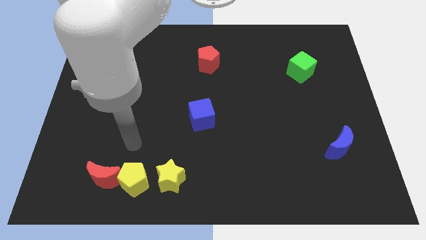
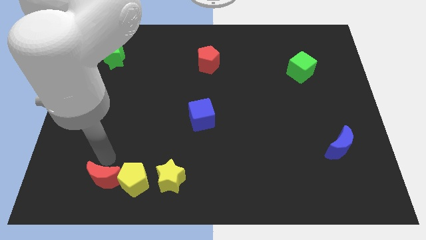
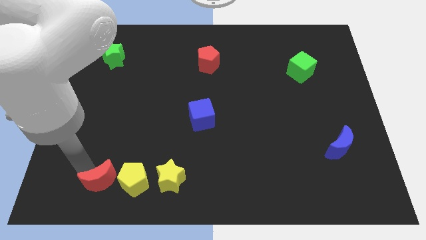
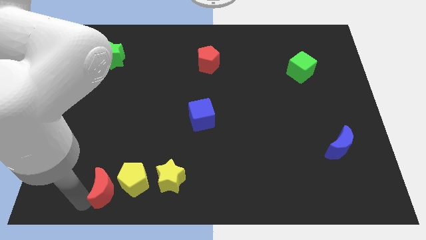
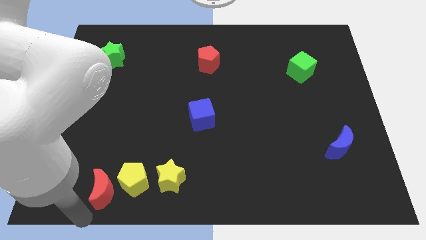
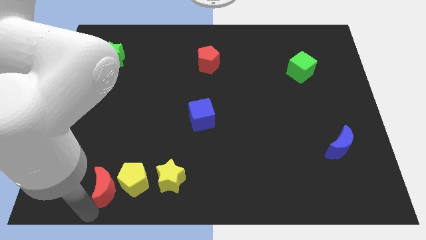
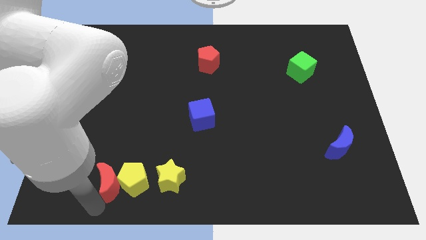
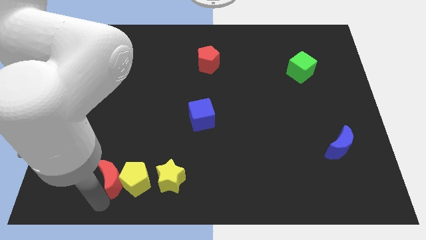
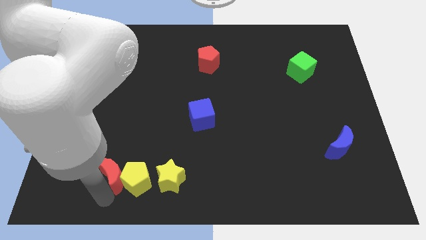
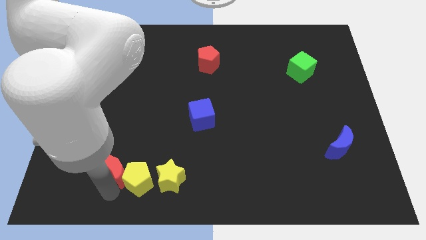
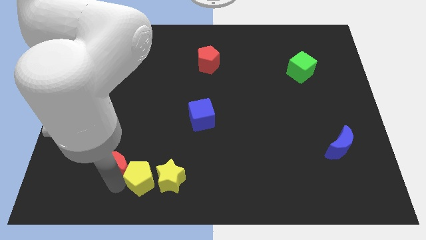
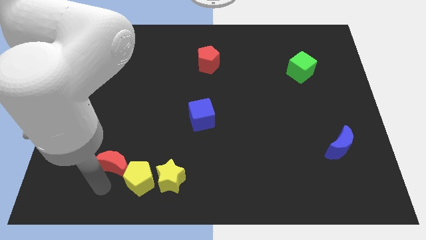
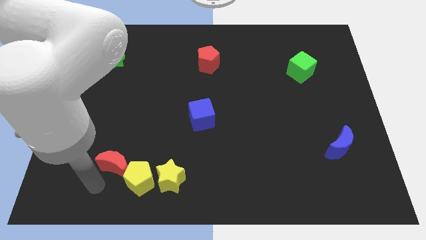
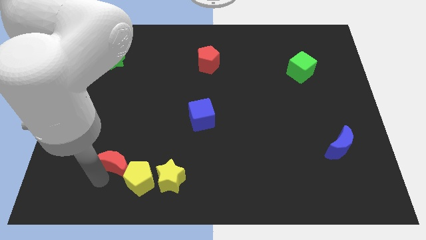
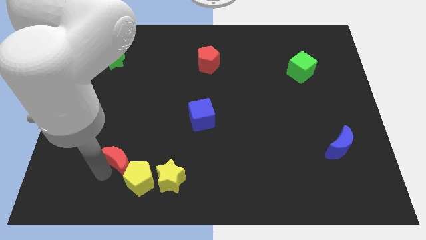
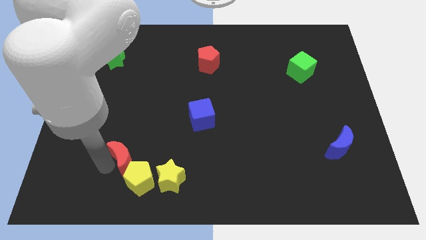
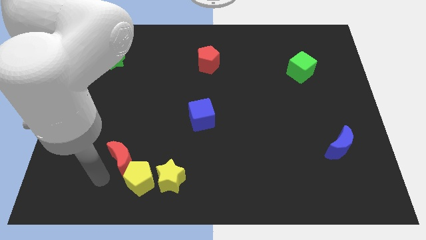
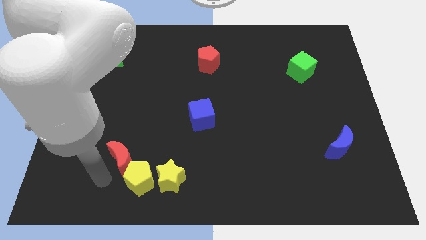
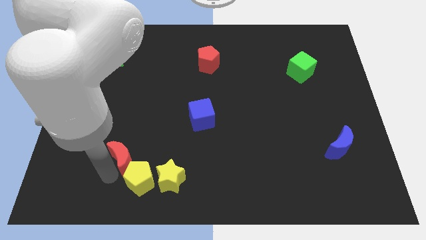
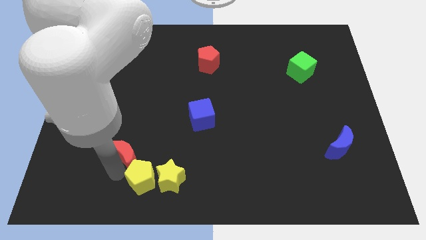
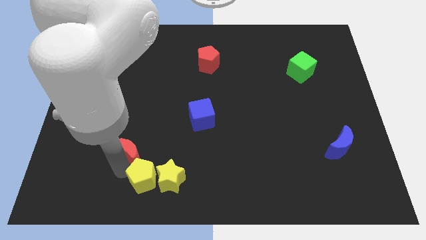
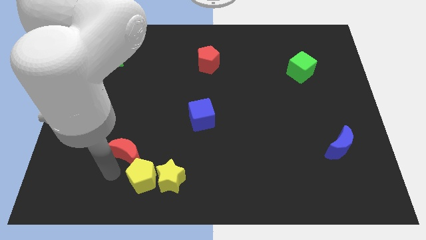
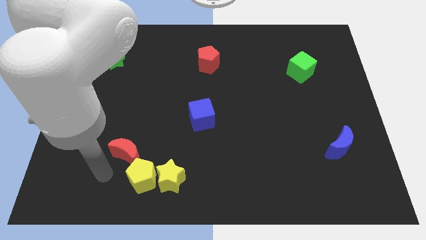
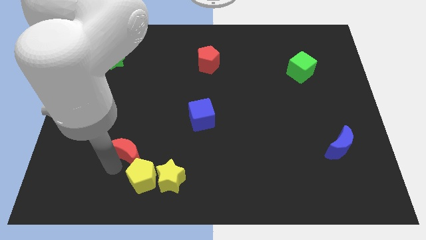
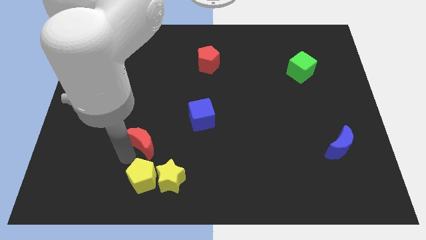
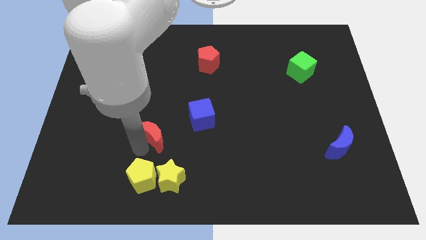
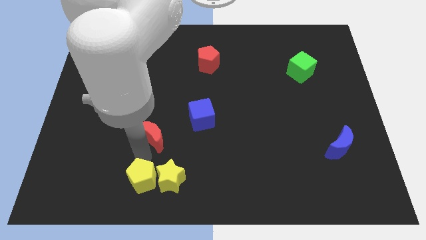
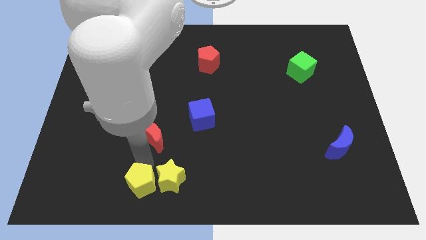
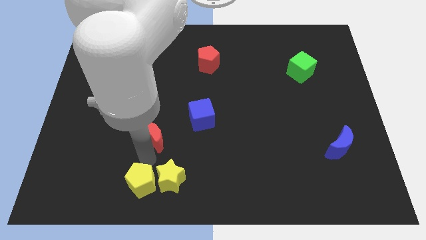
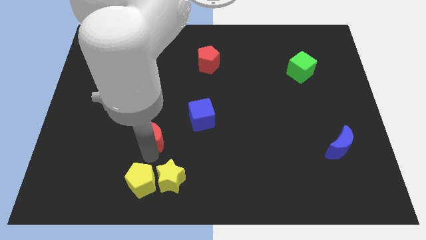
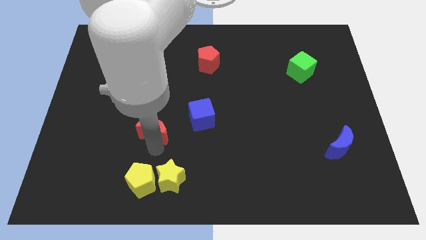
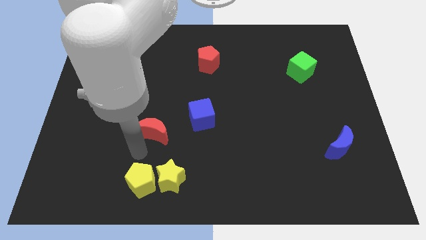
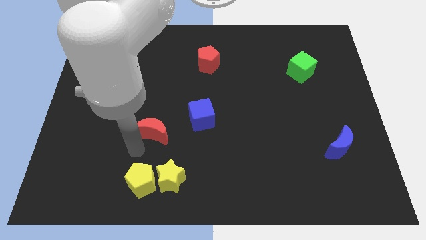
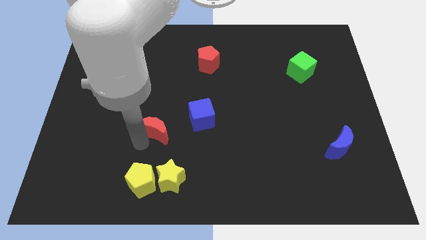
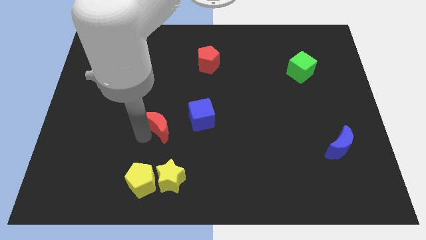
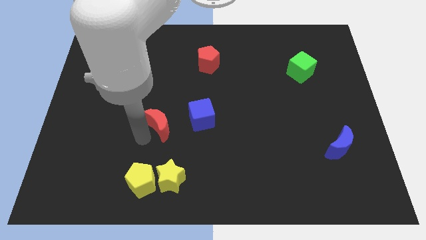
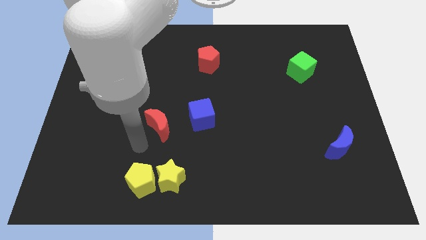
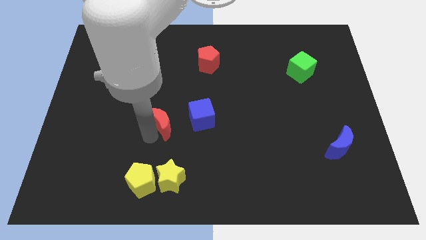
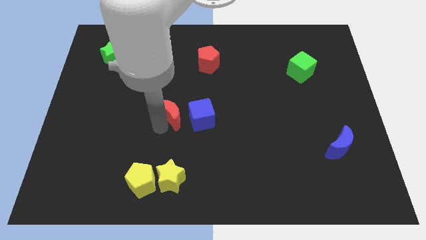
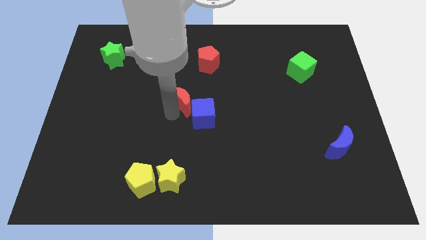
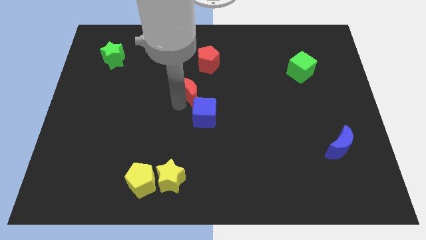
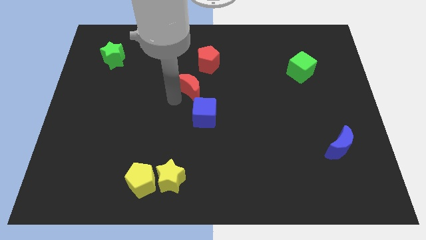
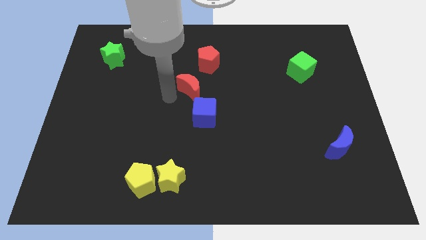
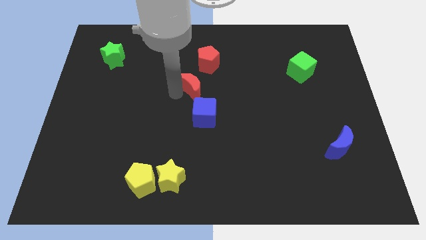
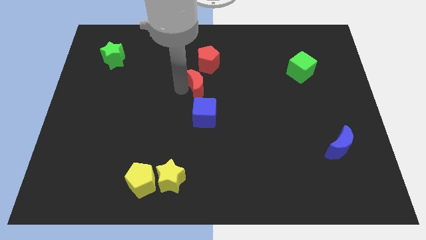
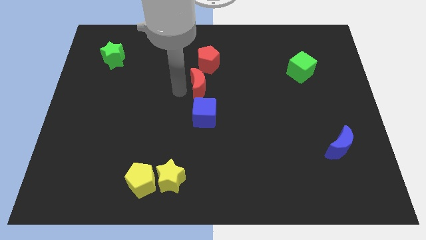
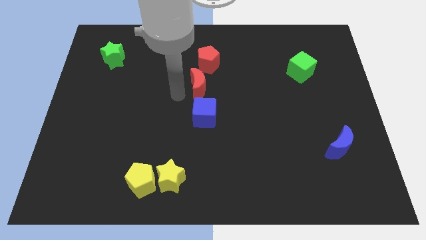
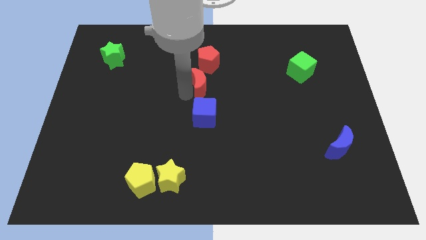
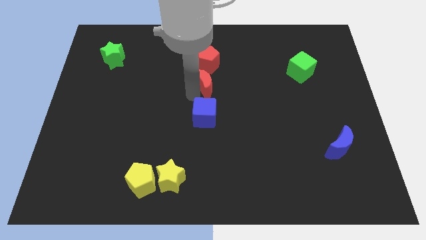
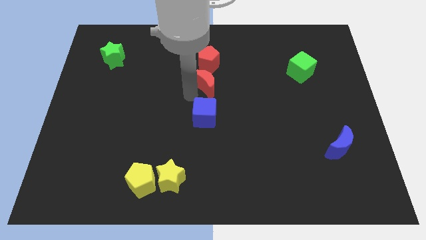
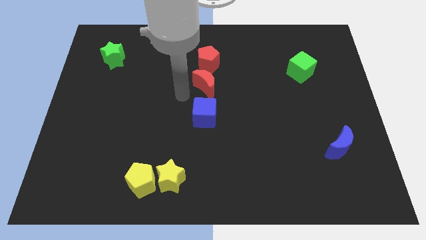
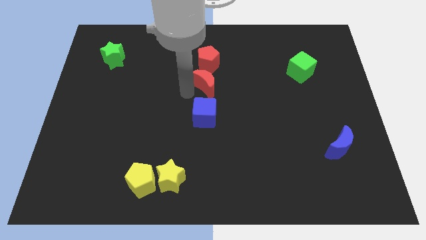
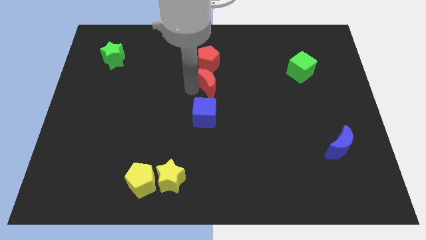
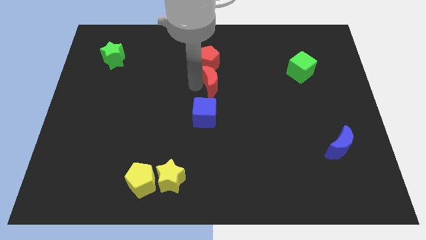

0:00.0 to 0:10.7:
move the red moon diagonally down and to the right of the red pentagon

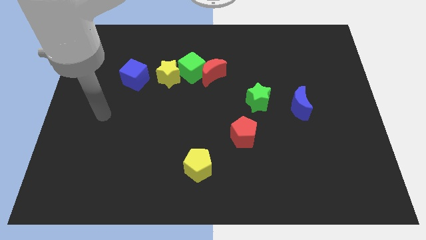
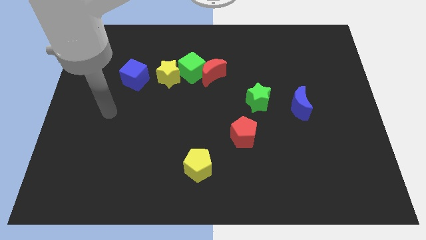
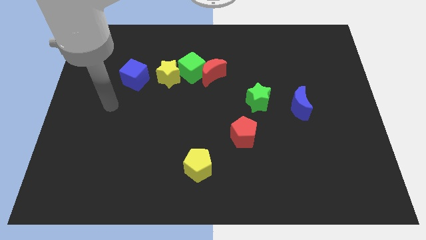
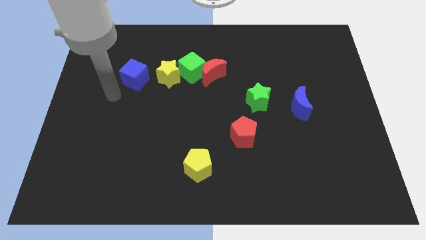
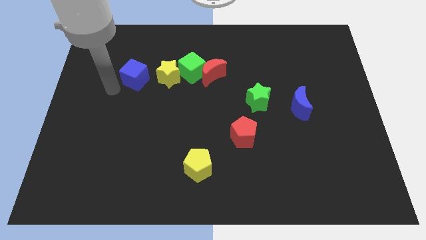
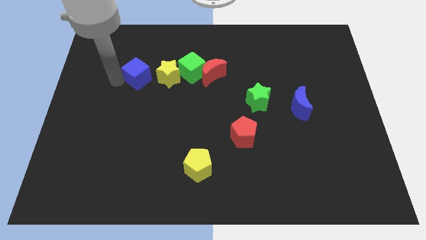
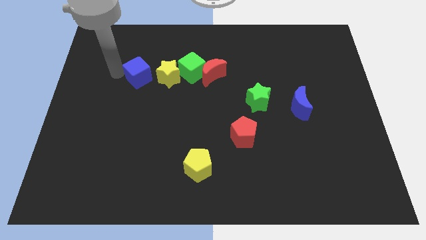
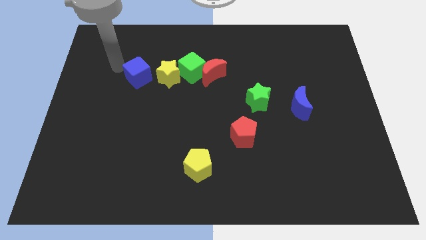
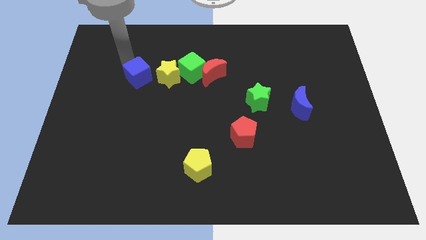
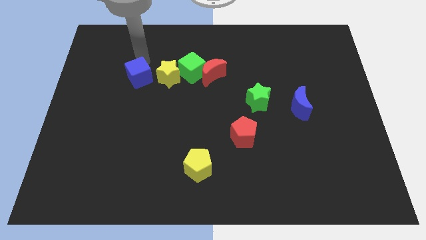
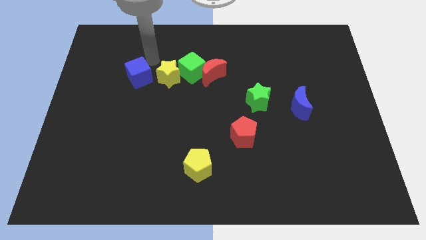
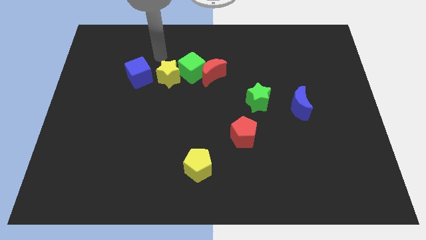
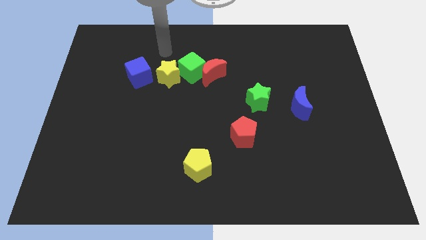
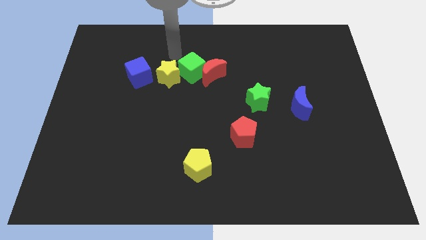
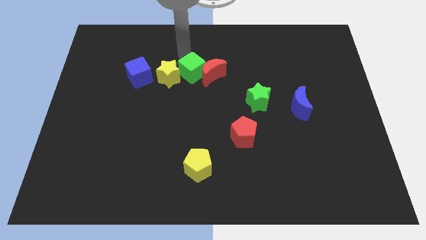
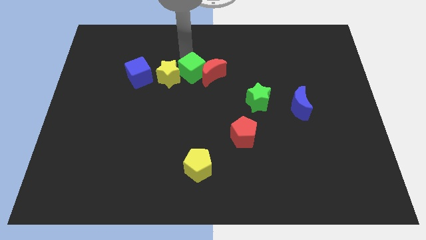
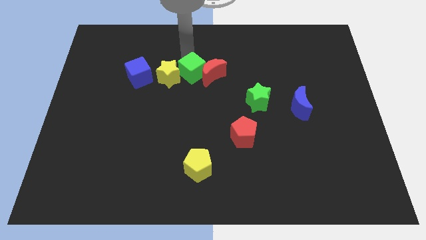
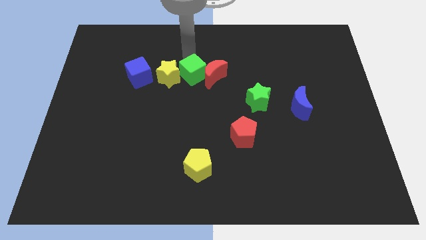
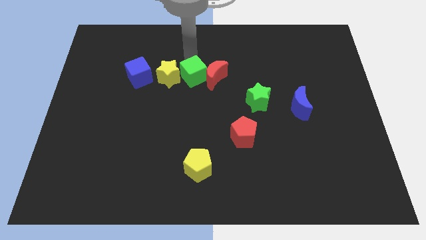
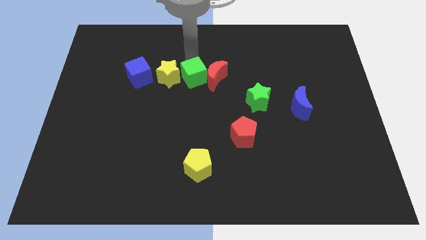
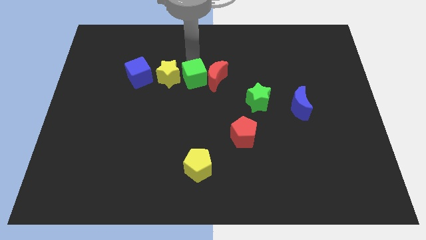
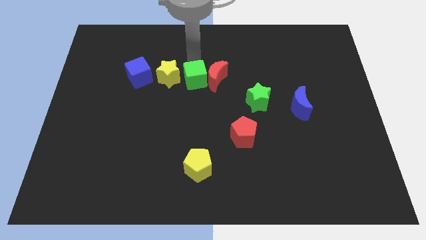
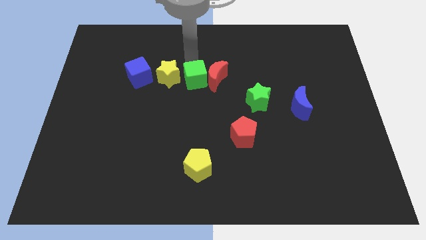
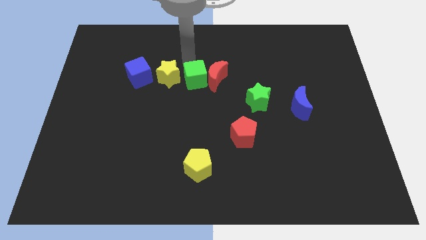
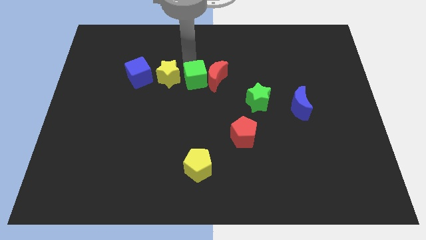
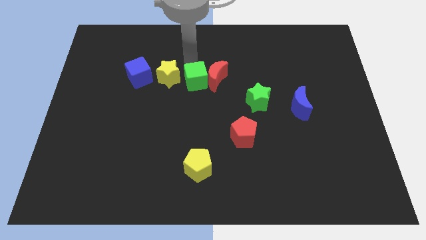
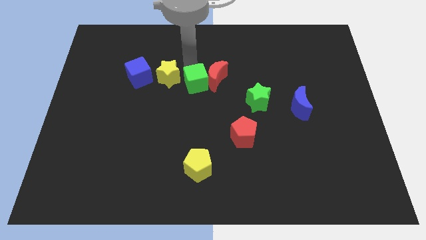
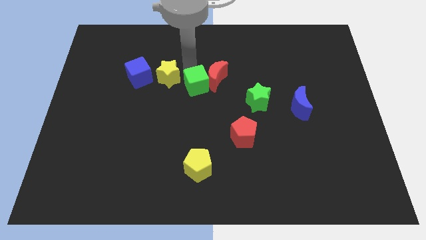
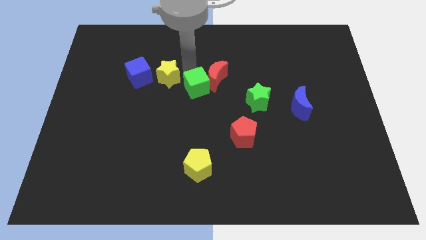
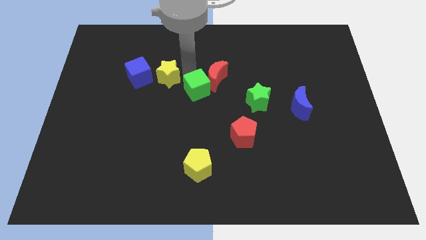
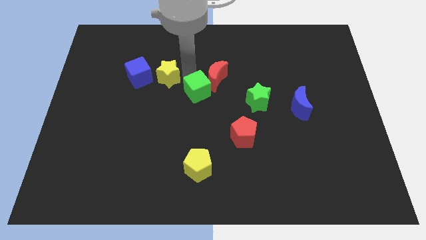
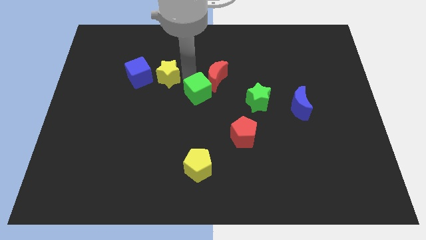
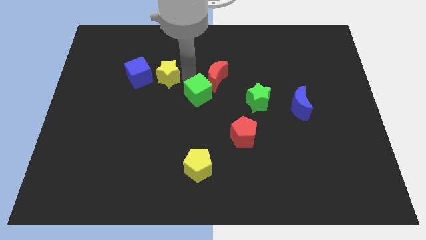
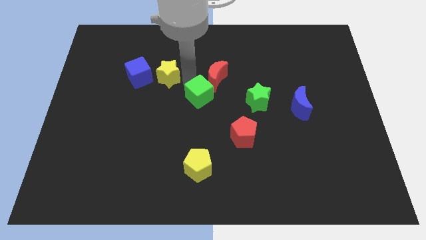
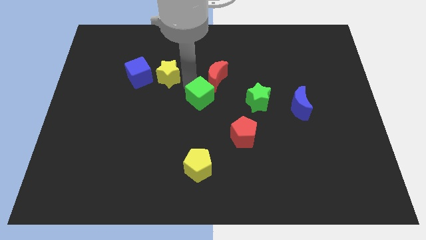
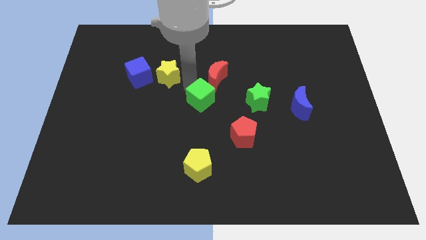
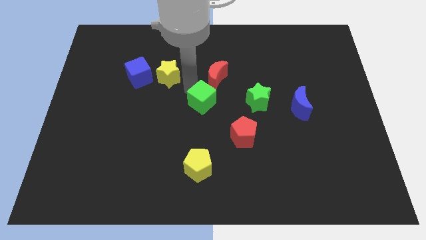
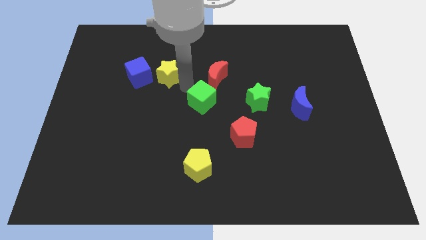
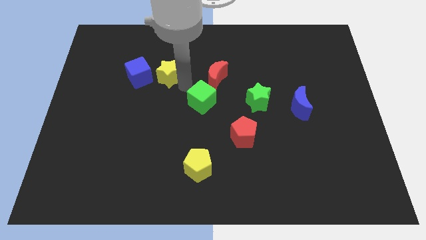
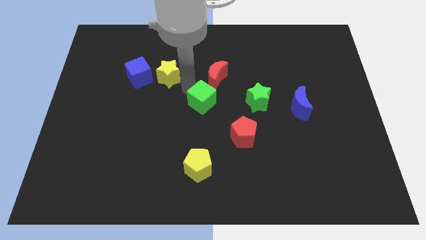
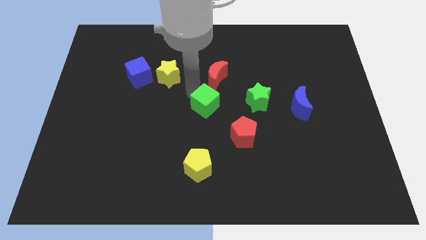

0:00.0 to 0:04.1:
move the green cube to the top left of the red pentagon
